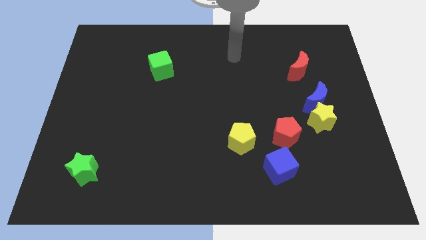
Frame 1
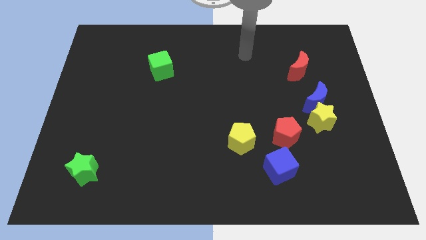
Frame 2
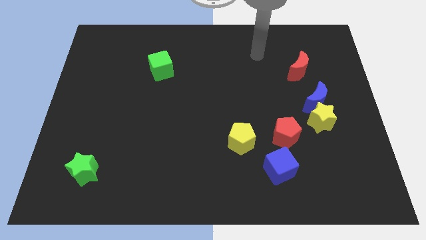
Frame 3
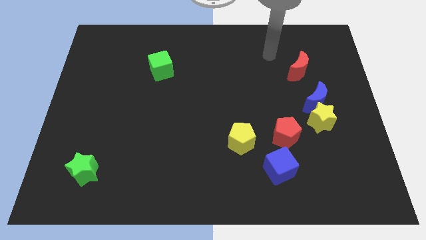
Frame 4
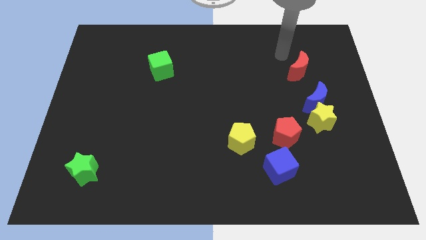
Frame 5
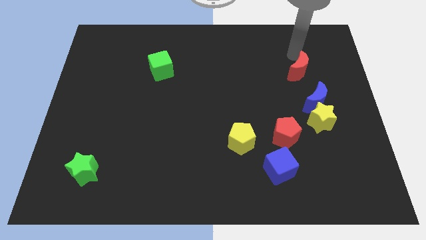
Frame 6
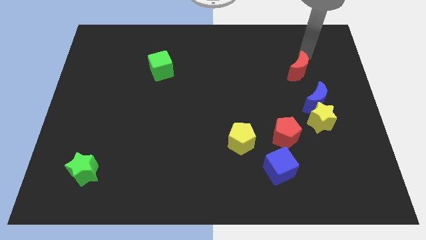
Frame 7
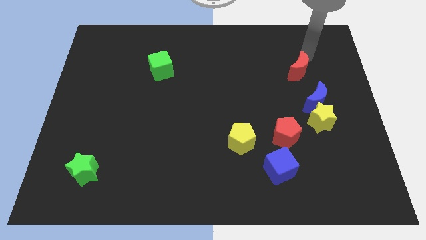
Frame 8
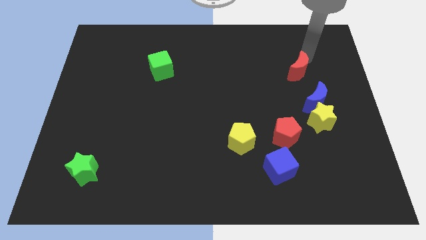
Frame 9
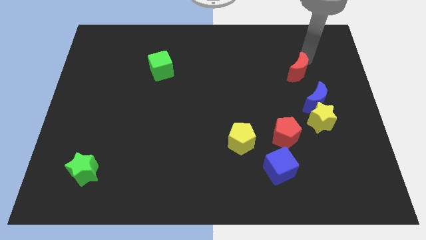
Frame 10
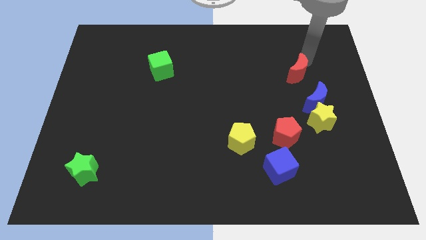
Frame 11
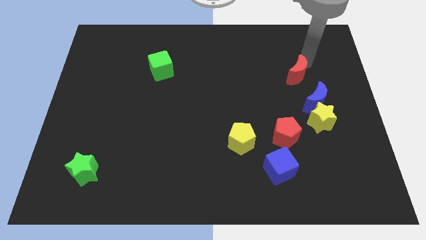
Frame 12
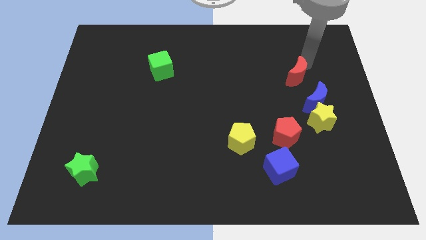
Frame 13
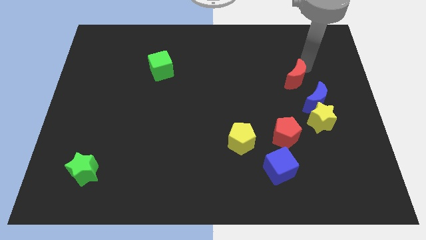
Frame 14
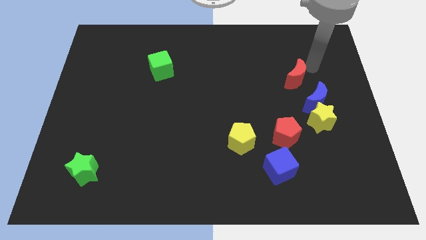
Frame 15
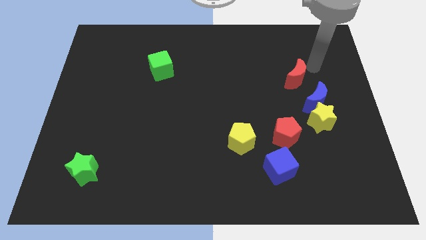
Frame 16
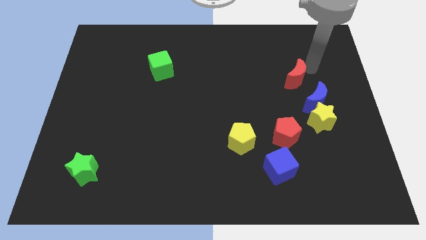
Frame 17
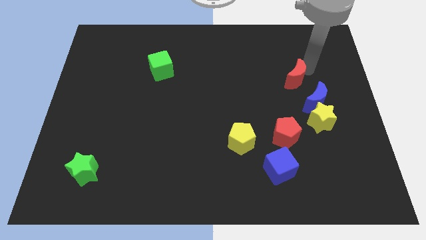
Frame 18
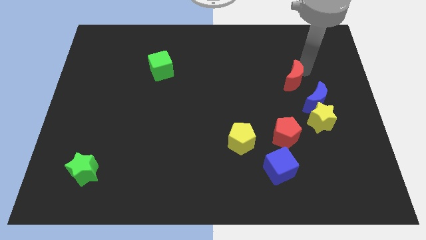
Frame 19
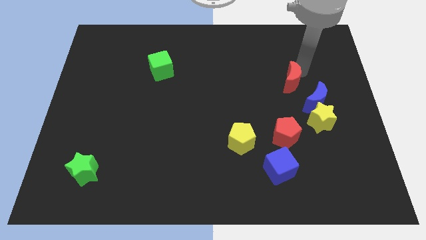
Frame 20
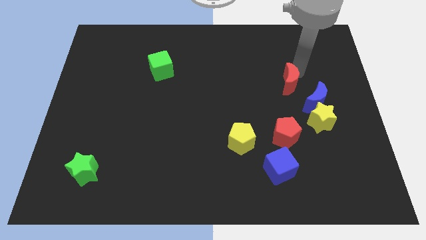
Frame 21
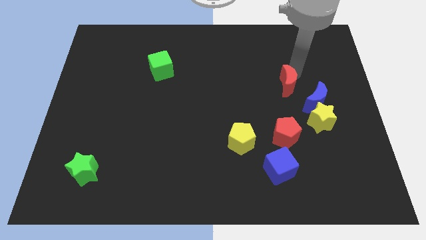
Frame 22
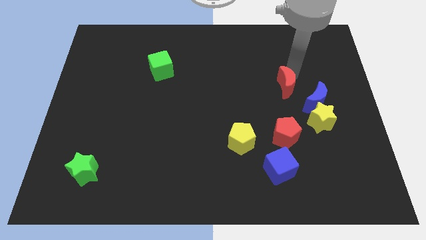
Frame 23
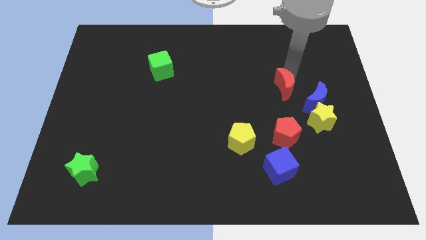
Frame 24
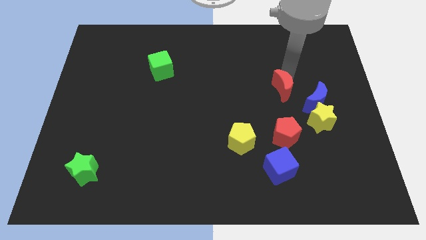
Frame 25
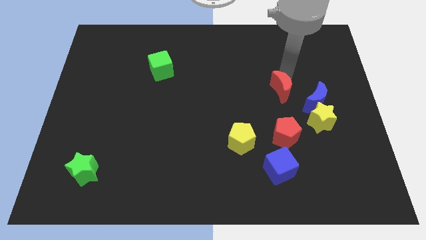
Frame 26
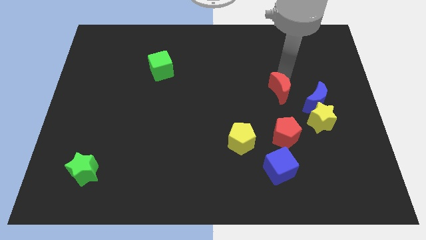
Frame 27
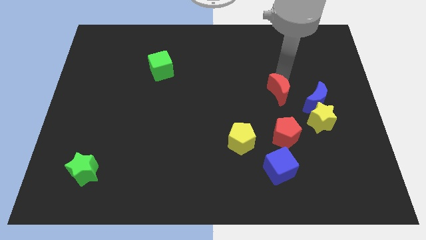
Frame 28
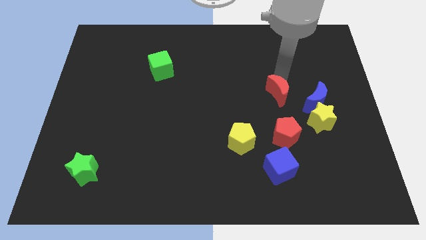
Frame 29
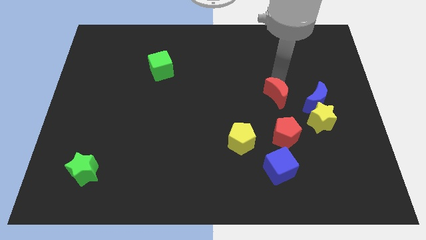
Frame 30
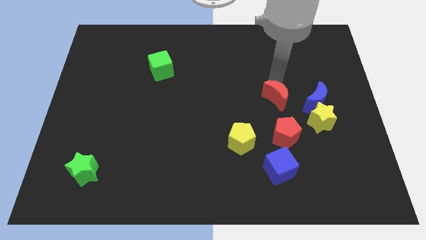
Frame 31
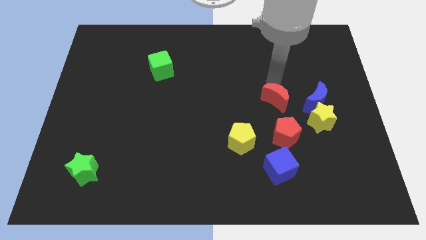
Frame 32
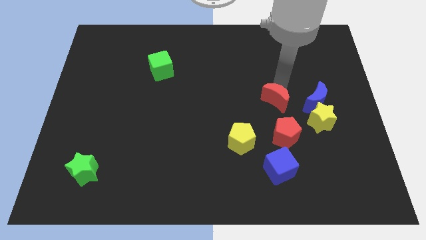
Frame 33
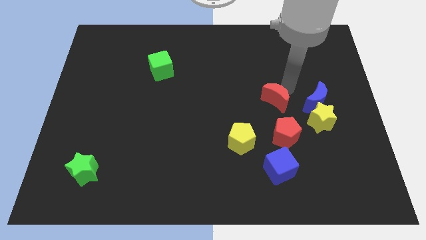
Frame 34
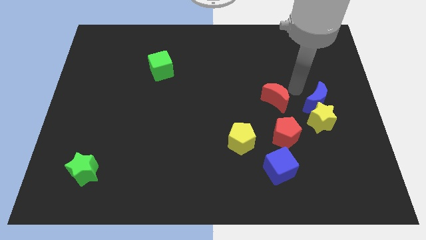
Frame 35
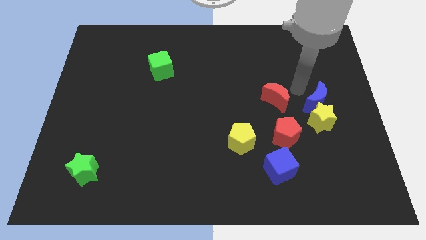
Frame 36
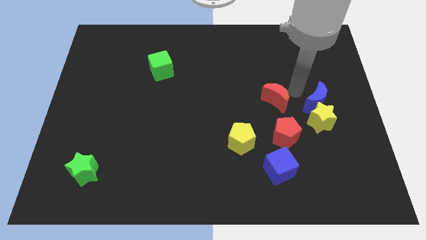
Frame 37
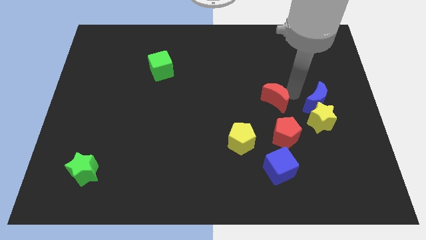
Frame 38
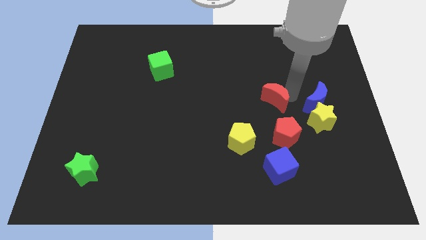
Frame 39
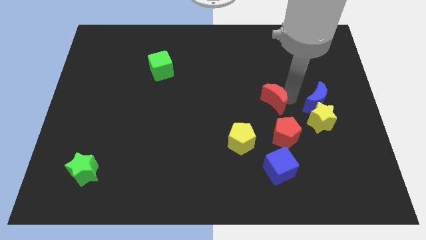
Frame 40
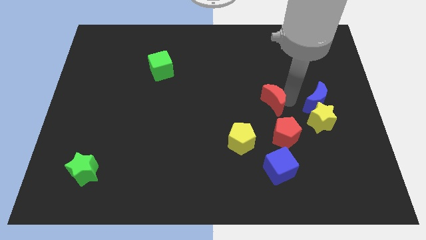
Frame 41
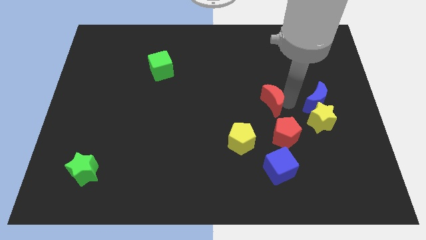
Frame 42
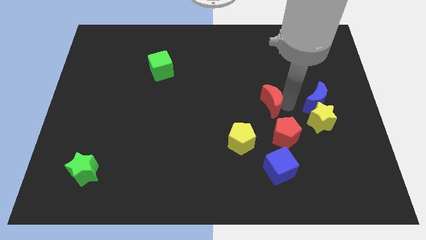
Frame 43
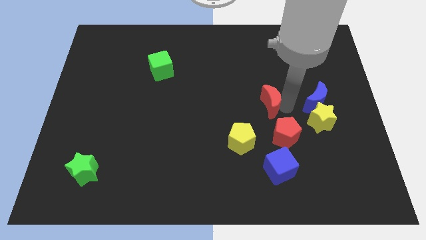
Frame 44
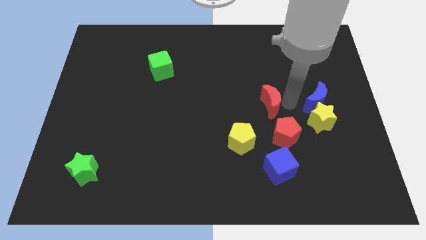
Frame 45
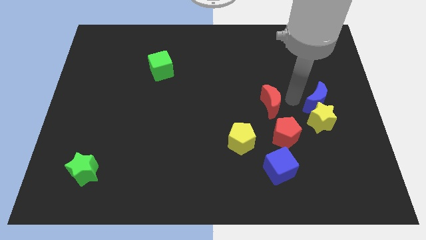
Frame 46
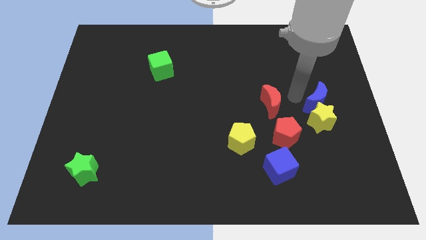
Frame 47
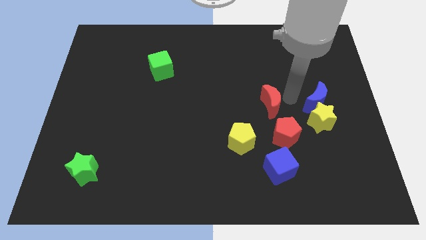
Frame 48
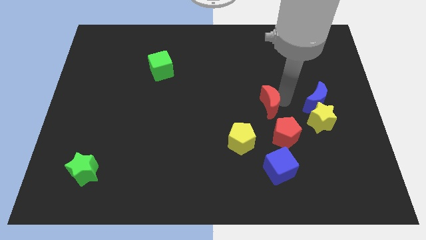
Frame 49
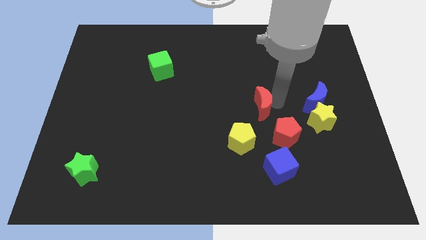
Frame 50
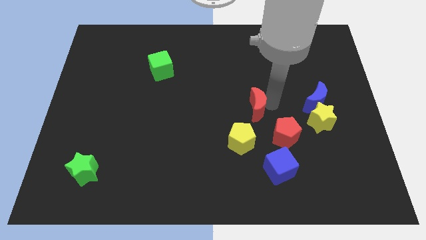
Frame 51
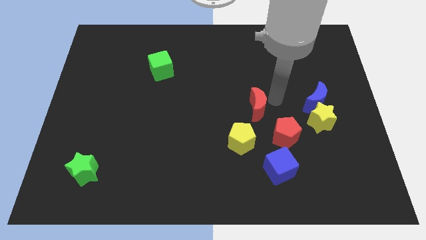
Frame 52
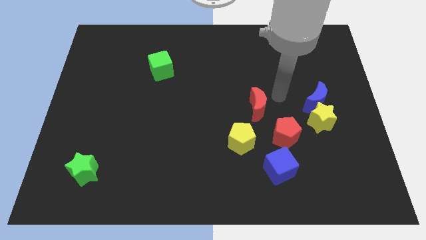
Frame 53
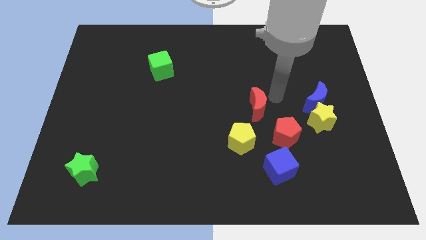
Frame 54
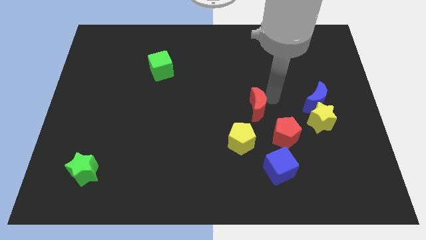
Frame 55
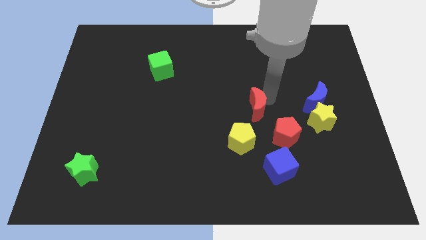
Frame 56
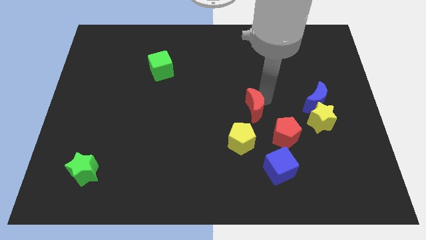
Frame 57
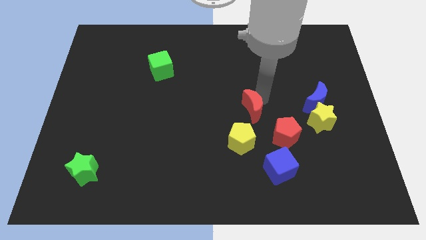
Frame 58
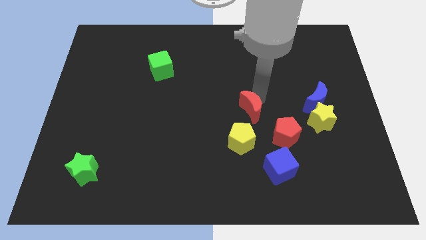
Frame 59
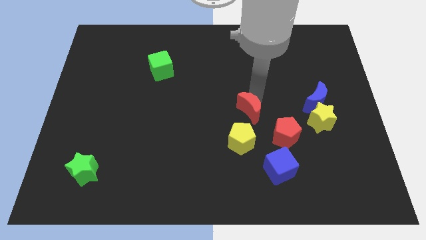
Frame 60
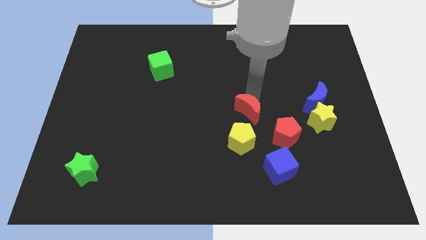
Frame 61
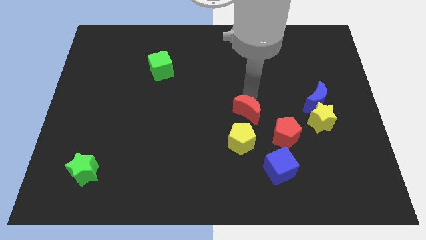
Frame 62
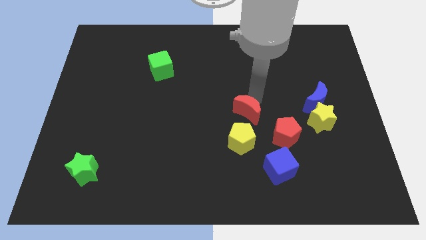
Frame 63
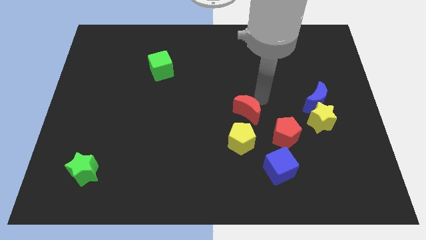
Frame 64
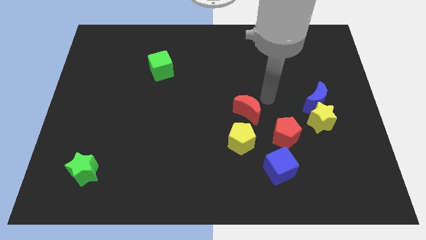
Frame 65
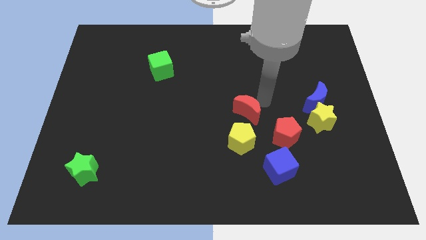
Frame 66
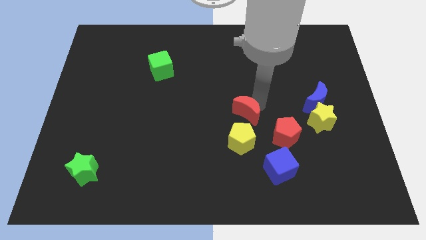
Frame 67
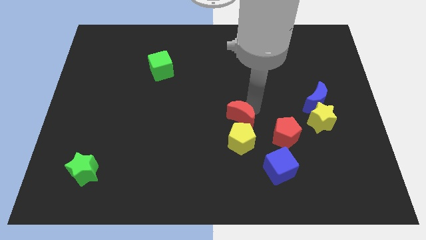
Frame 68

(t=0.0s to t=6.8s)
slide the red moon diagonally downwards and to the left

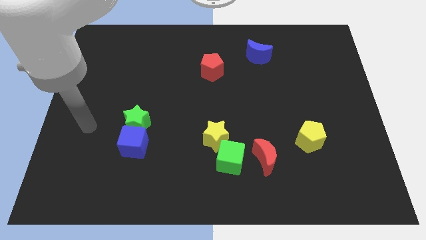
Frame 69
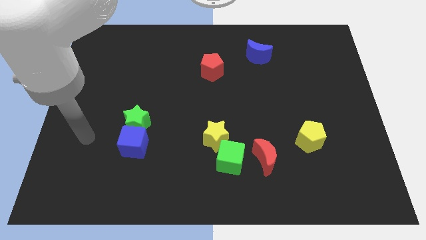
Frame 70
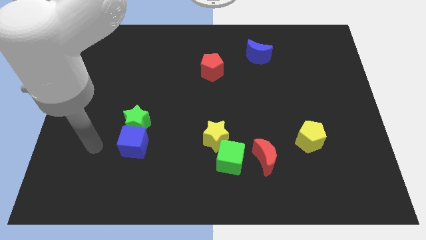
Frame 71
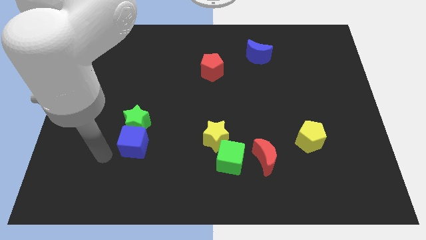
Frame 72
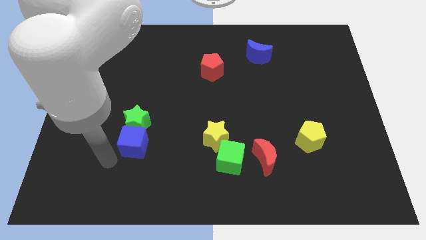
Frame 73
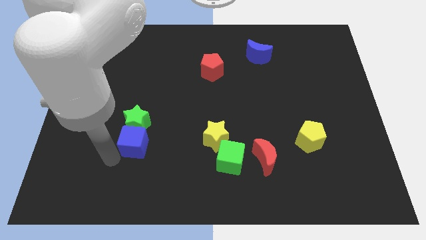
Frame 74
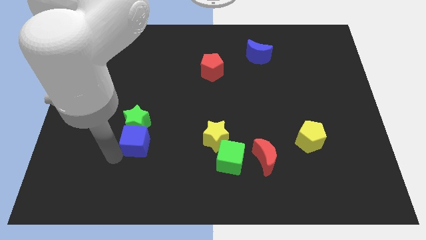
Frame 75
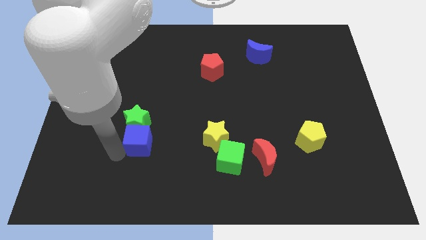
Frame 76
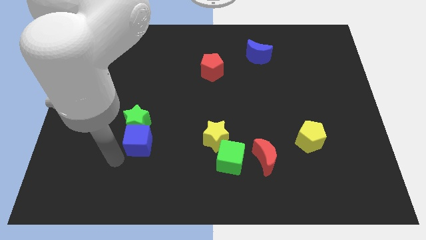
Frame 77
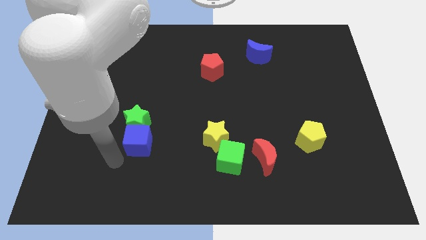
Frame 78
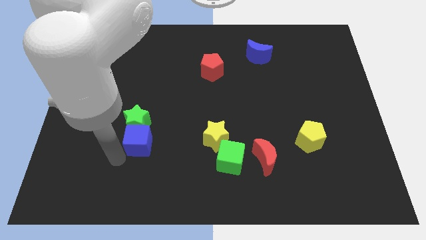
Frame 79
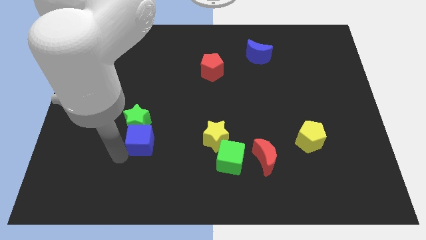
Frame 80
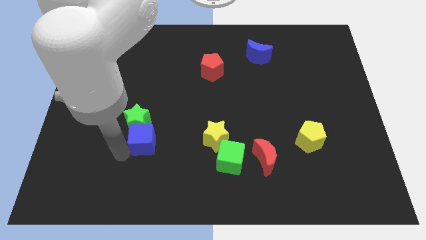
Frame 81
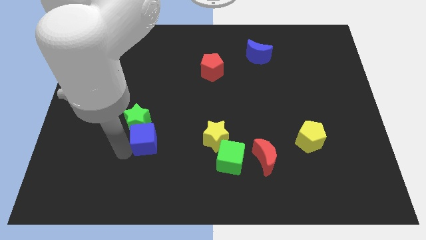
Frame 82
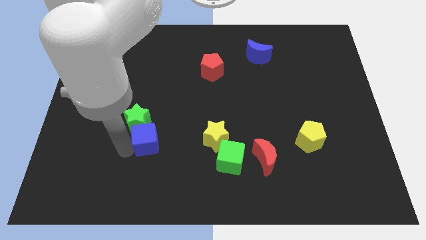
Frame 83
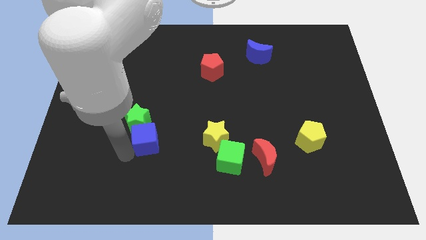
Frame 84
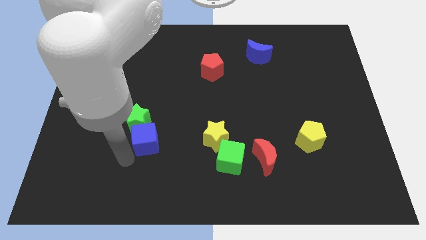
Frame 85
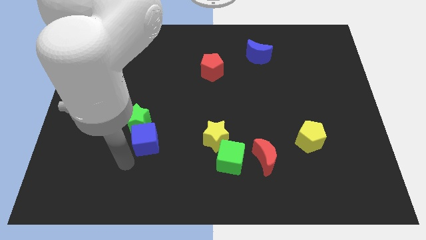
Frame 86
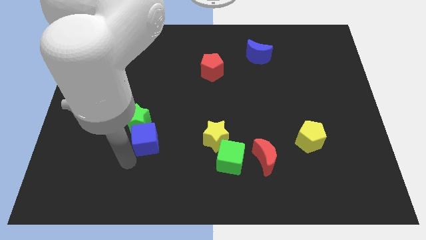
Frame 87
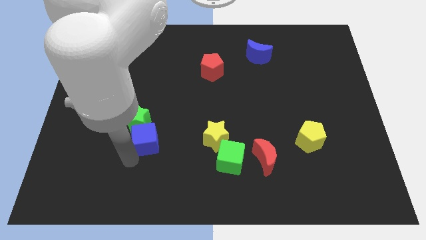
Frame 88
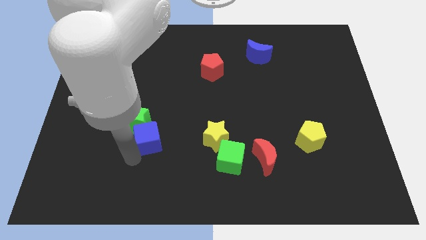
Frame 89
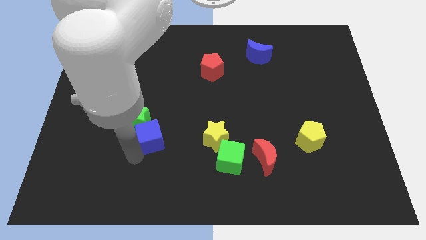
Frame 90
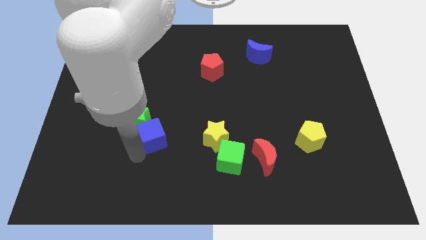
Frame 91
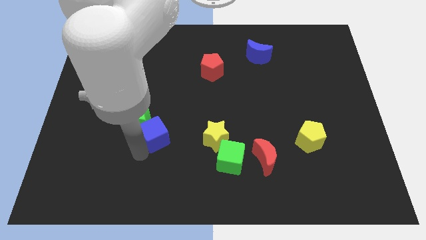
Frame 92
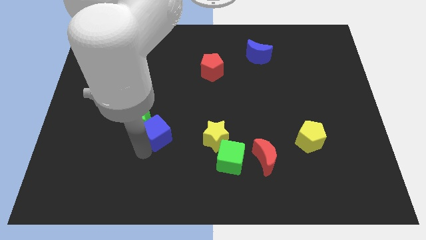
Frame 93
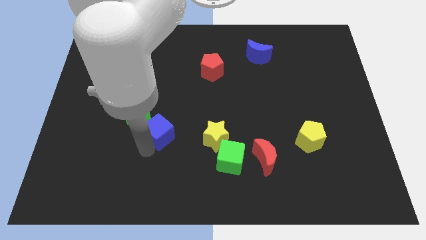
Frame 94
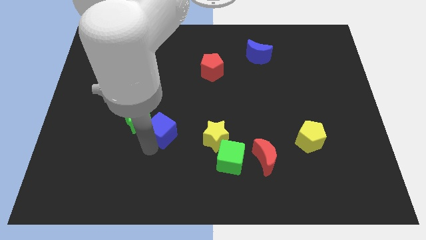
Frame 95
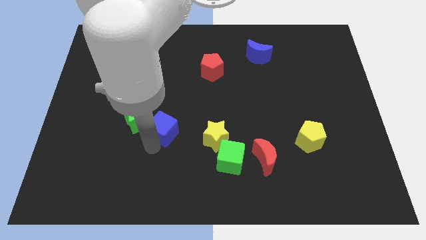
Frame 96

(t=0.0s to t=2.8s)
push the blue cube diagonally up and right somewhat
